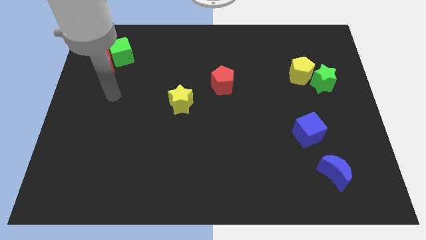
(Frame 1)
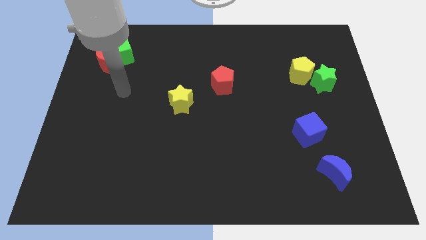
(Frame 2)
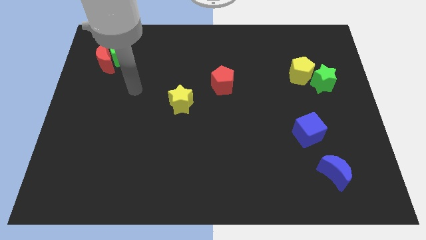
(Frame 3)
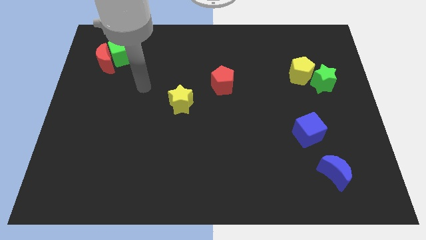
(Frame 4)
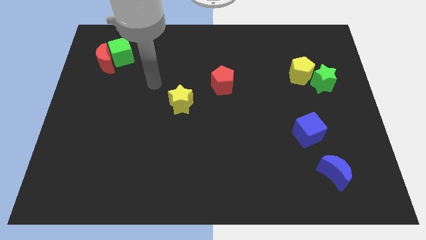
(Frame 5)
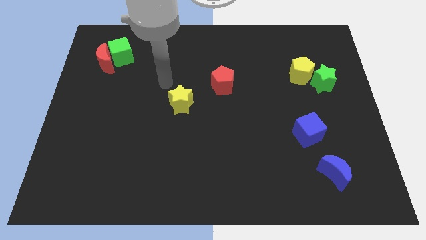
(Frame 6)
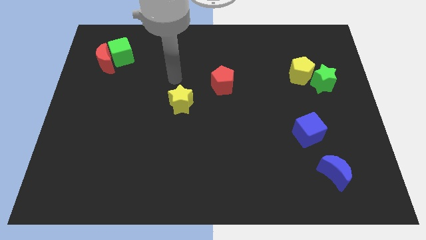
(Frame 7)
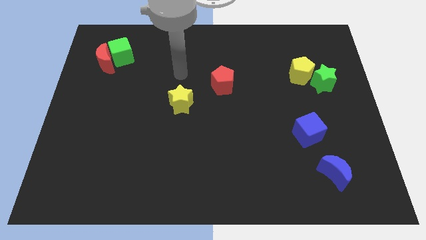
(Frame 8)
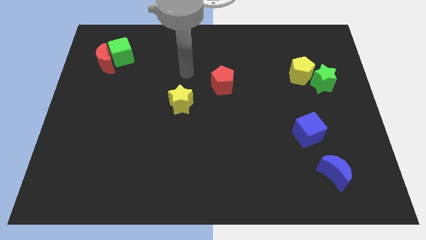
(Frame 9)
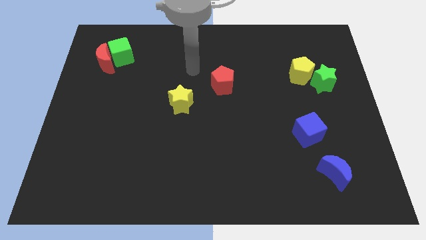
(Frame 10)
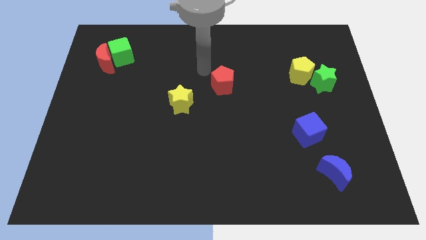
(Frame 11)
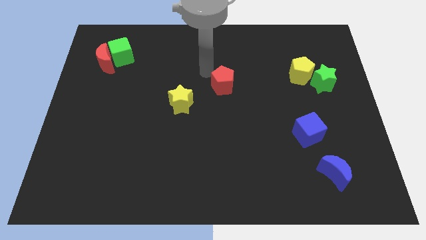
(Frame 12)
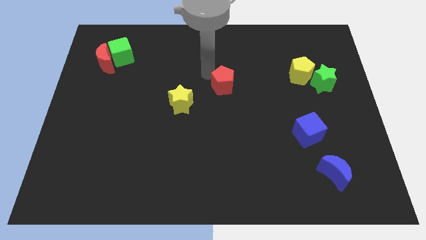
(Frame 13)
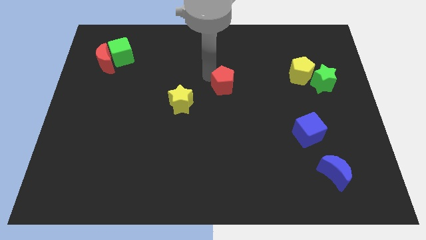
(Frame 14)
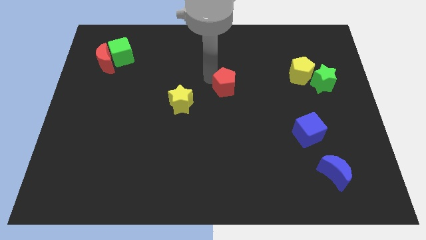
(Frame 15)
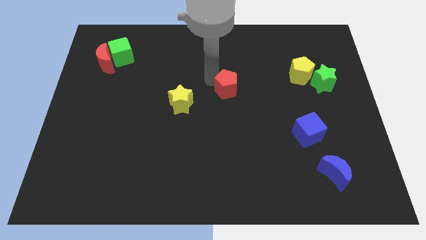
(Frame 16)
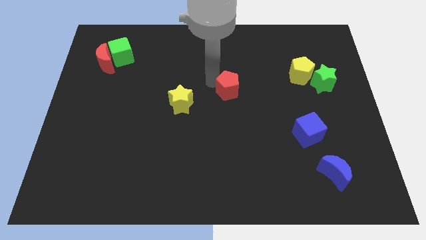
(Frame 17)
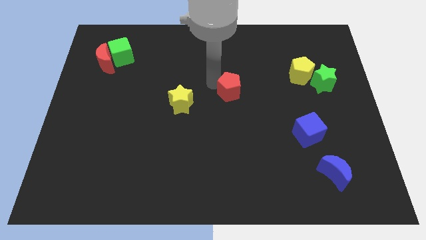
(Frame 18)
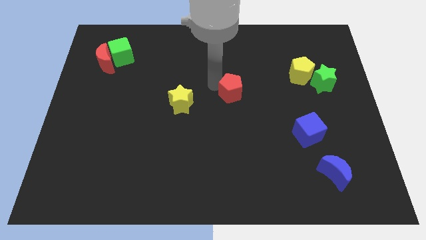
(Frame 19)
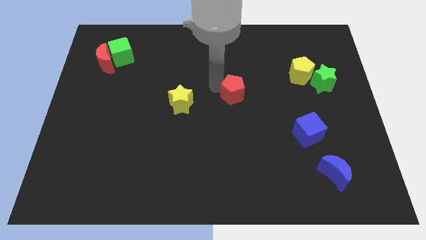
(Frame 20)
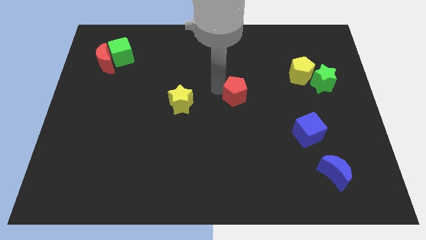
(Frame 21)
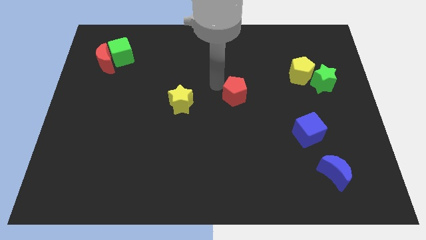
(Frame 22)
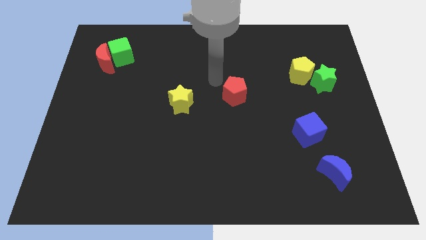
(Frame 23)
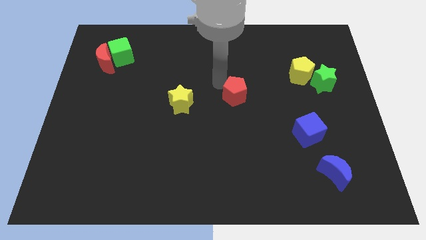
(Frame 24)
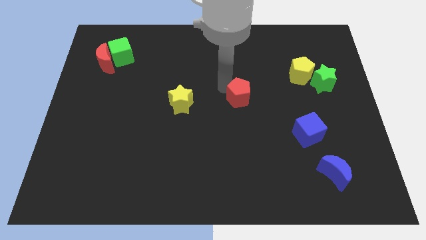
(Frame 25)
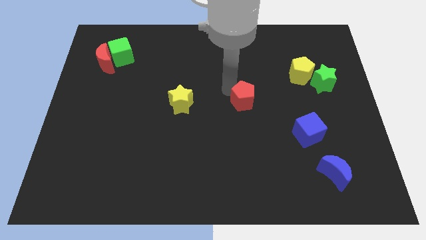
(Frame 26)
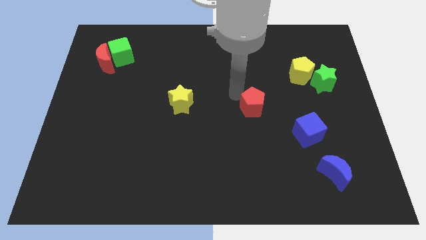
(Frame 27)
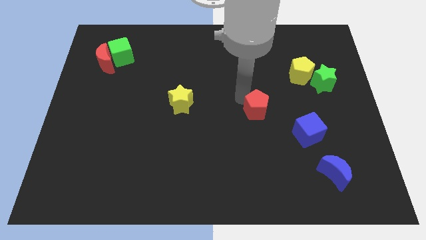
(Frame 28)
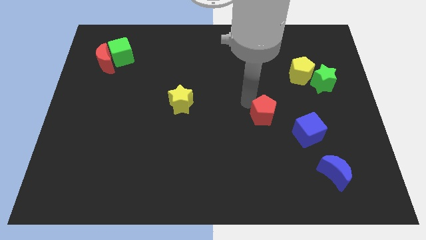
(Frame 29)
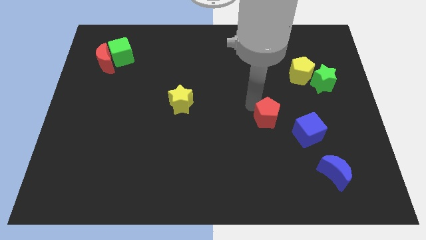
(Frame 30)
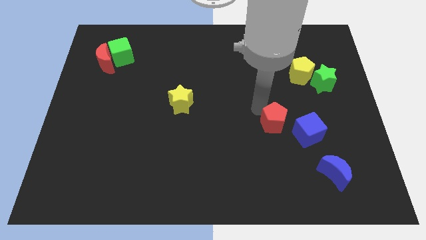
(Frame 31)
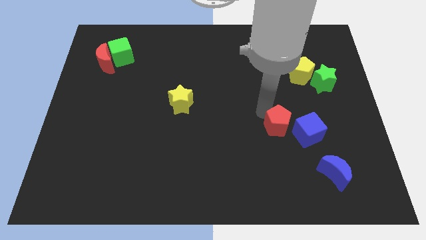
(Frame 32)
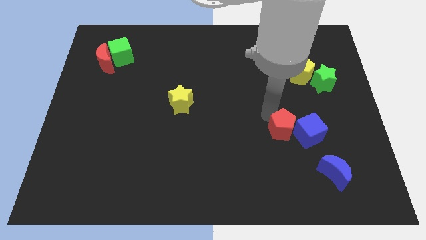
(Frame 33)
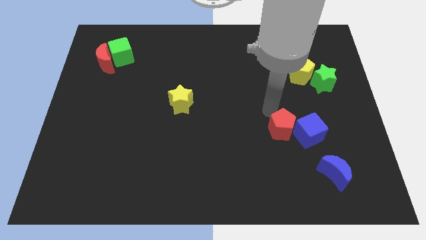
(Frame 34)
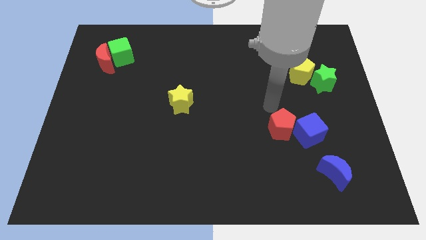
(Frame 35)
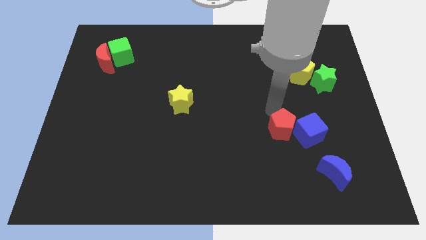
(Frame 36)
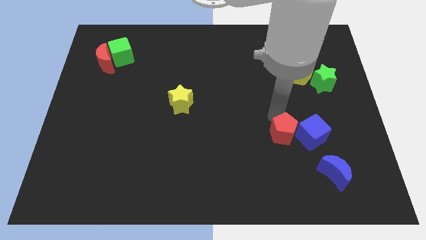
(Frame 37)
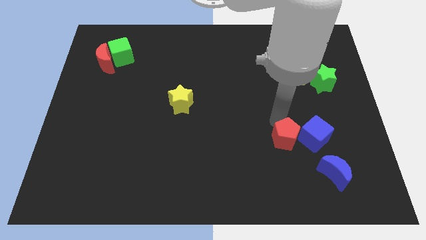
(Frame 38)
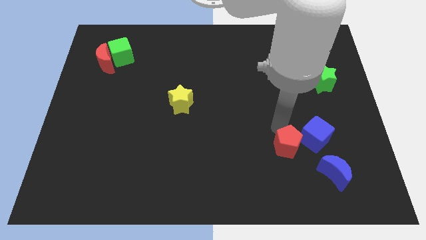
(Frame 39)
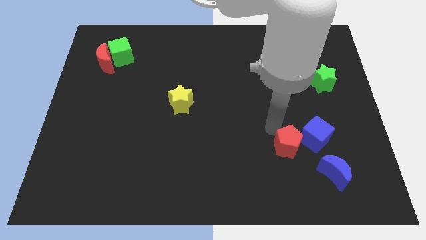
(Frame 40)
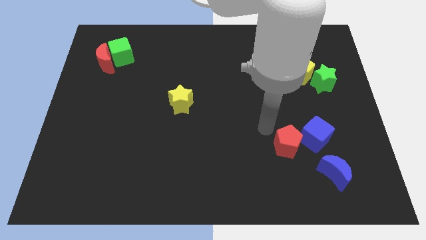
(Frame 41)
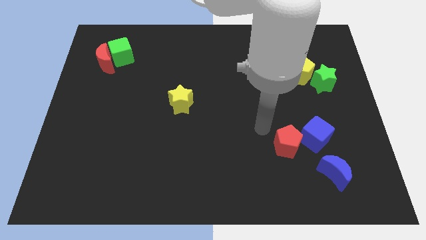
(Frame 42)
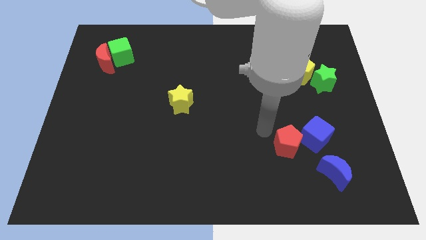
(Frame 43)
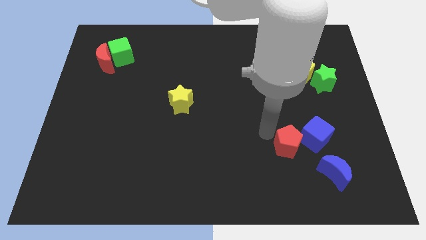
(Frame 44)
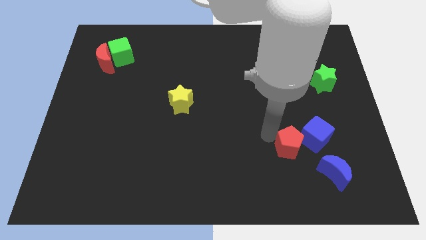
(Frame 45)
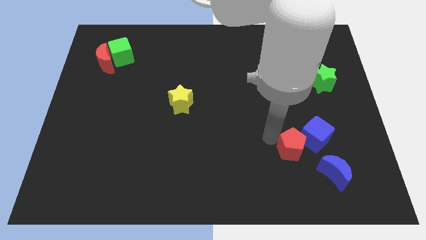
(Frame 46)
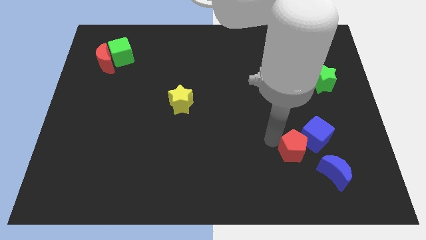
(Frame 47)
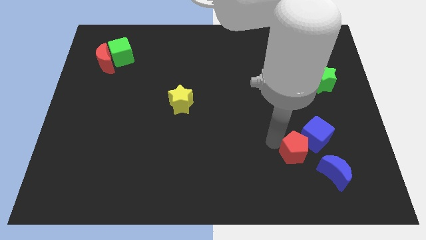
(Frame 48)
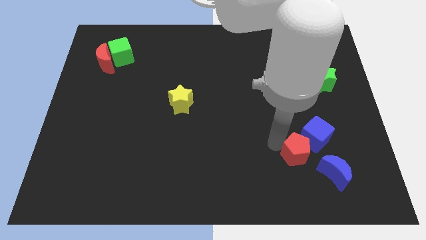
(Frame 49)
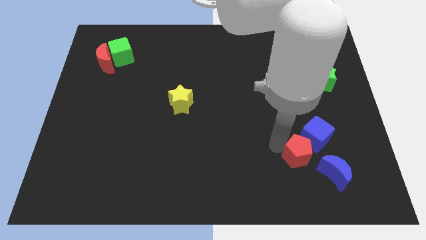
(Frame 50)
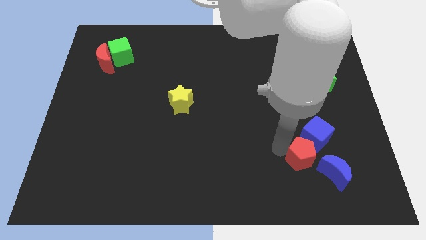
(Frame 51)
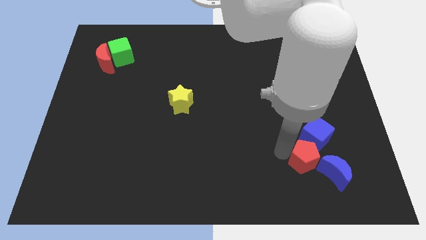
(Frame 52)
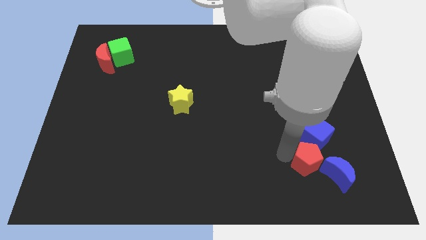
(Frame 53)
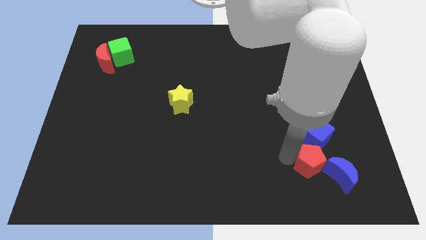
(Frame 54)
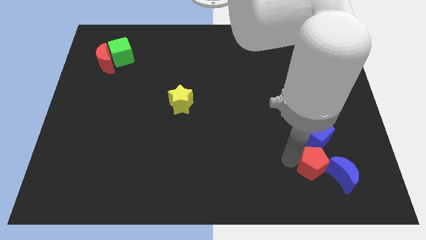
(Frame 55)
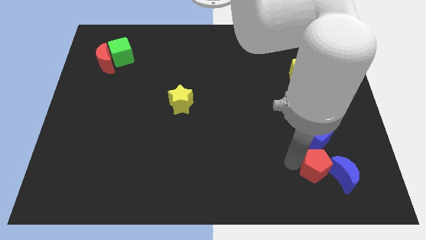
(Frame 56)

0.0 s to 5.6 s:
put the red pentagon towards the blue moon

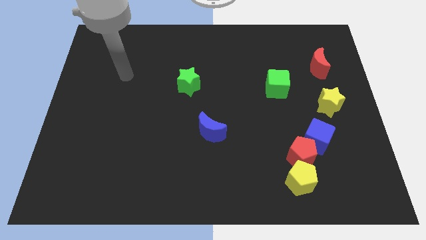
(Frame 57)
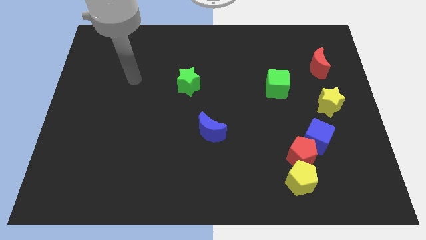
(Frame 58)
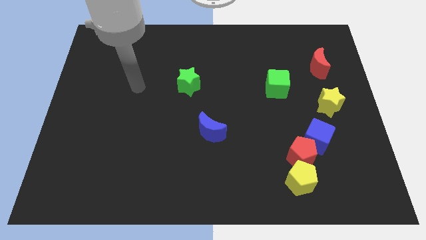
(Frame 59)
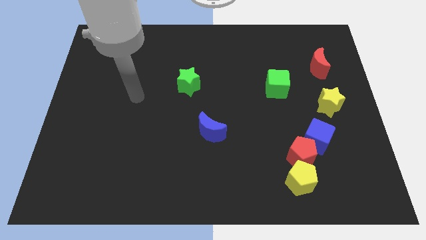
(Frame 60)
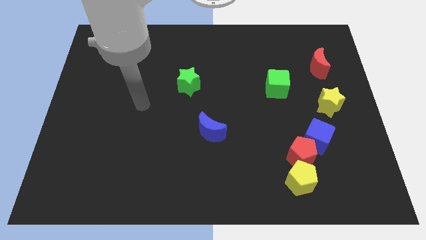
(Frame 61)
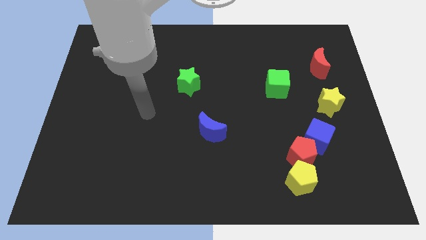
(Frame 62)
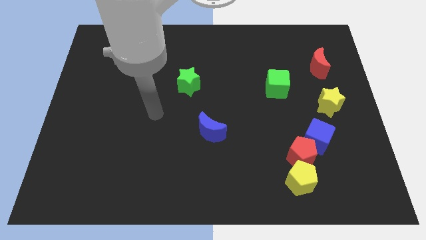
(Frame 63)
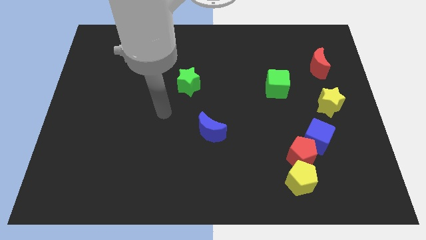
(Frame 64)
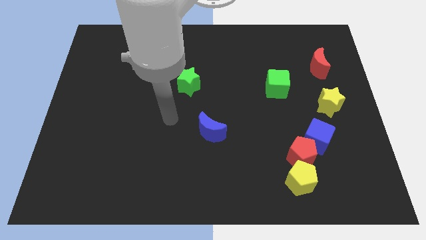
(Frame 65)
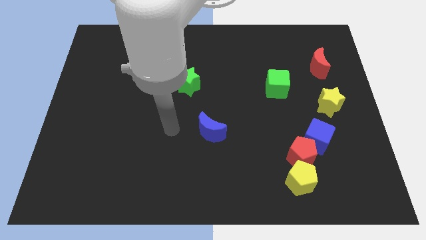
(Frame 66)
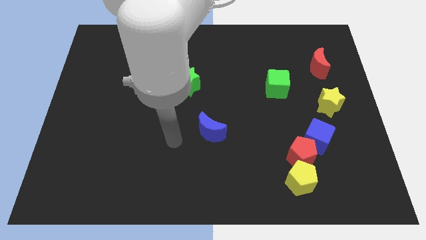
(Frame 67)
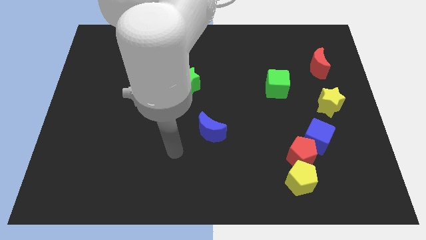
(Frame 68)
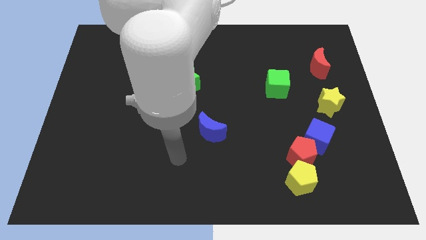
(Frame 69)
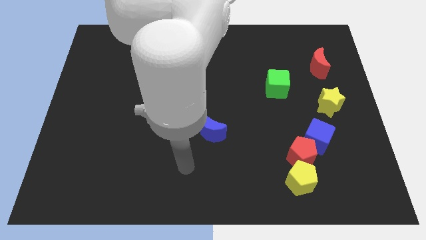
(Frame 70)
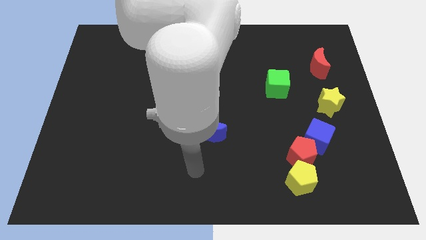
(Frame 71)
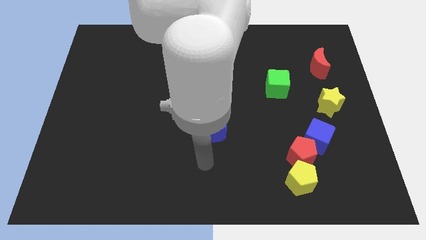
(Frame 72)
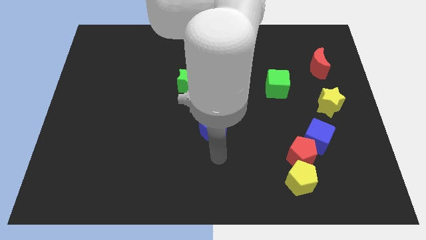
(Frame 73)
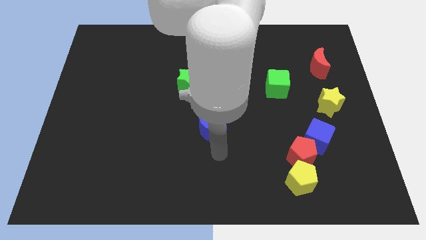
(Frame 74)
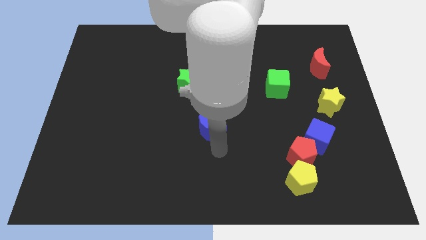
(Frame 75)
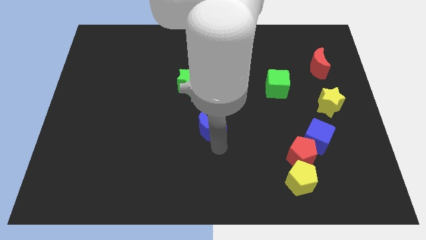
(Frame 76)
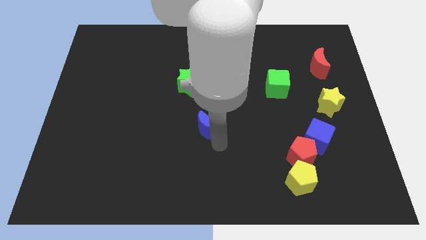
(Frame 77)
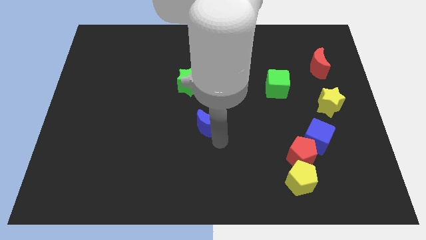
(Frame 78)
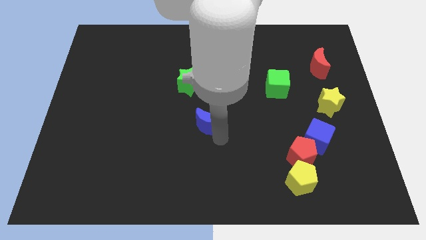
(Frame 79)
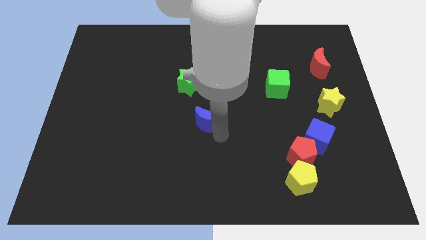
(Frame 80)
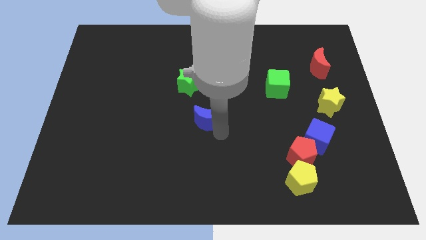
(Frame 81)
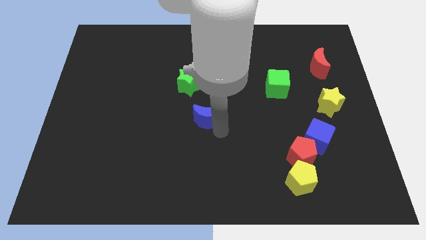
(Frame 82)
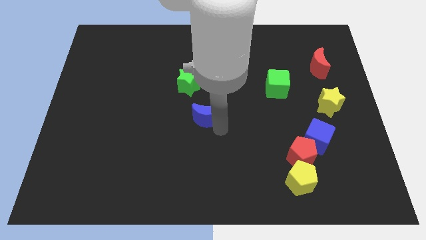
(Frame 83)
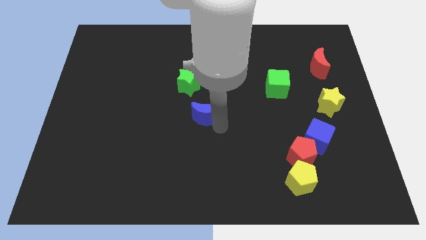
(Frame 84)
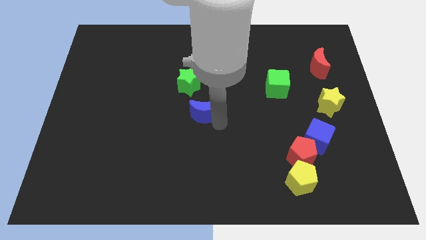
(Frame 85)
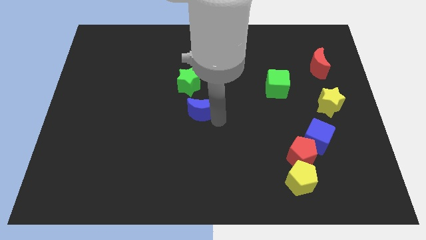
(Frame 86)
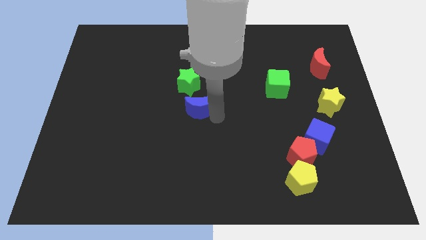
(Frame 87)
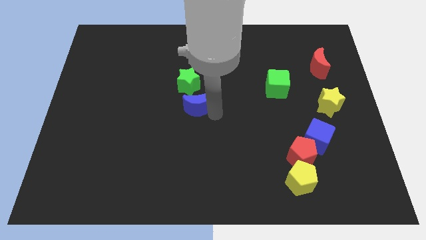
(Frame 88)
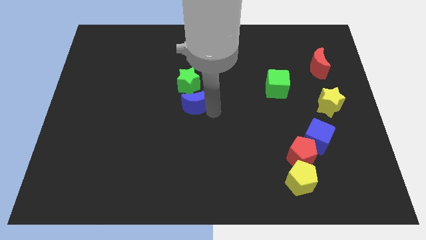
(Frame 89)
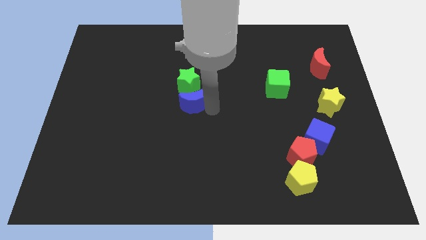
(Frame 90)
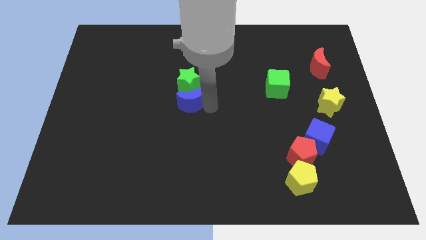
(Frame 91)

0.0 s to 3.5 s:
push the blue moon towards the green star
